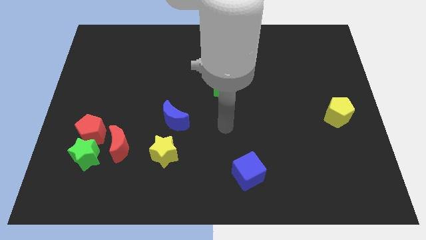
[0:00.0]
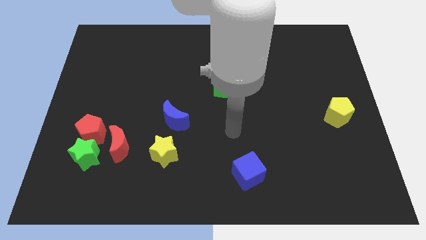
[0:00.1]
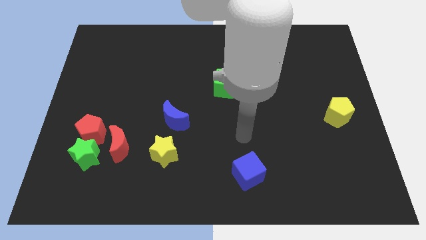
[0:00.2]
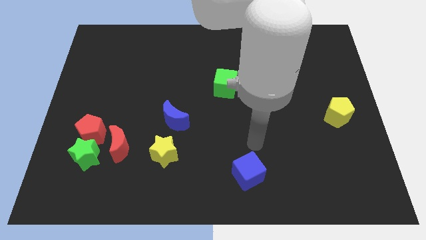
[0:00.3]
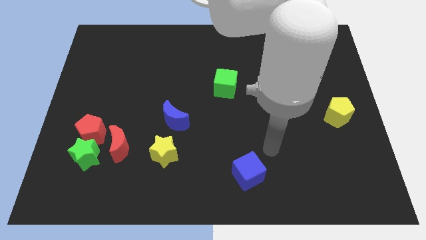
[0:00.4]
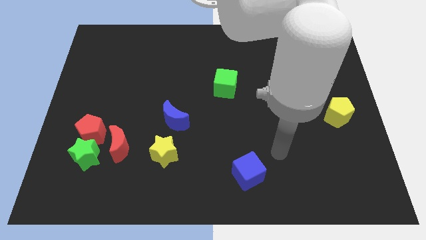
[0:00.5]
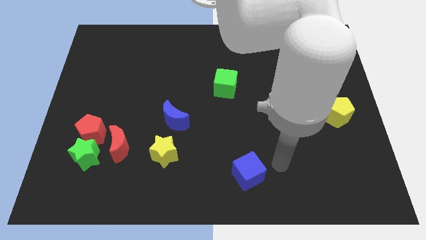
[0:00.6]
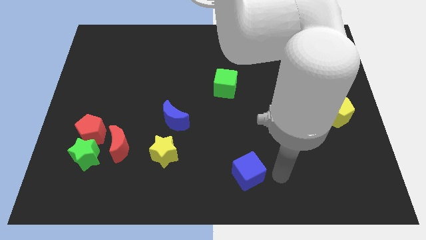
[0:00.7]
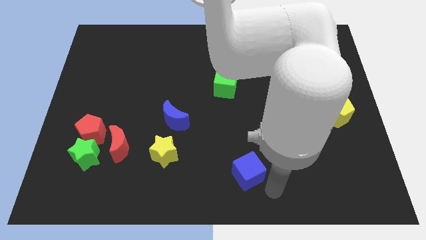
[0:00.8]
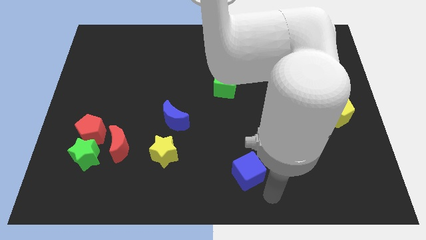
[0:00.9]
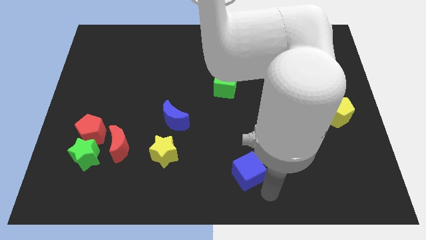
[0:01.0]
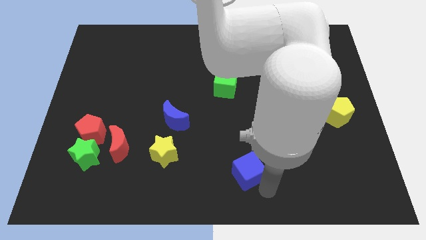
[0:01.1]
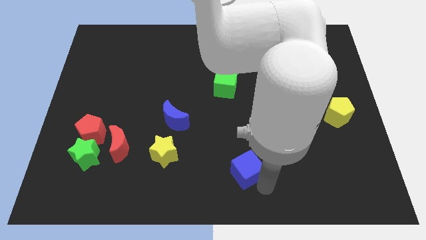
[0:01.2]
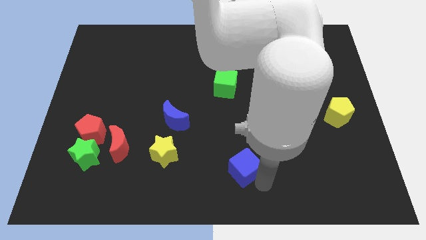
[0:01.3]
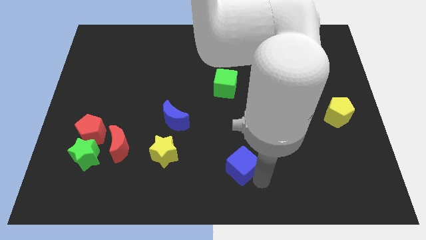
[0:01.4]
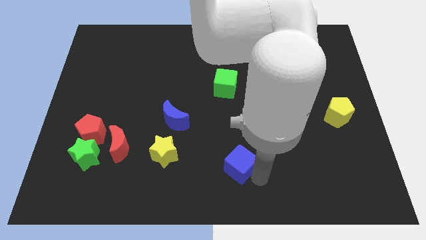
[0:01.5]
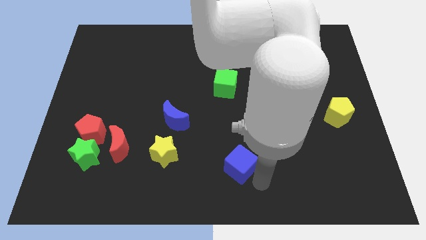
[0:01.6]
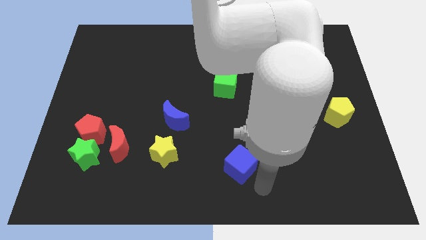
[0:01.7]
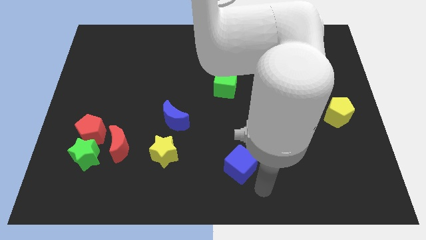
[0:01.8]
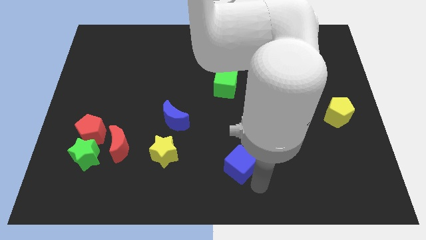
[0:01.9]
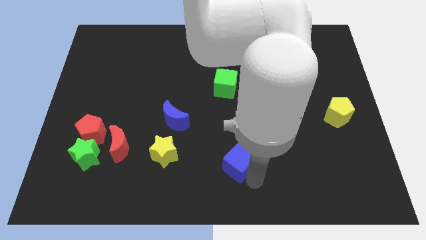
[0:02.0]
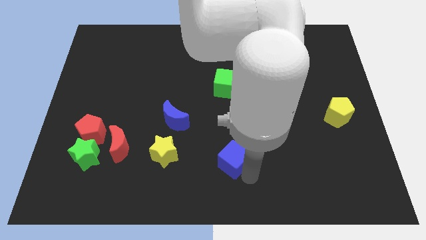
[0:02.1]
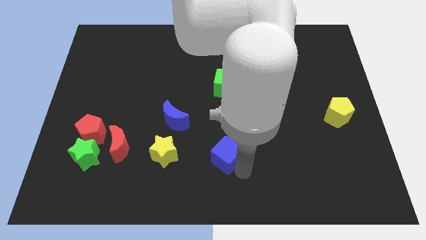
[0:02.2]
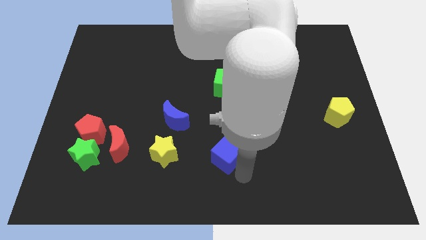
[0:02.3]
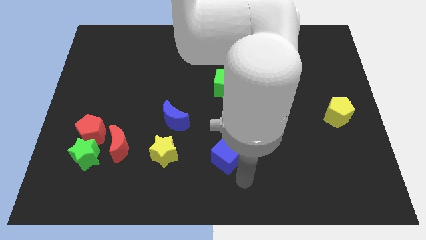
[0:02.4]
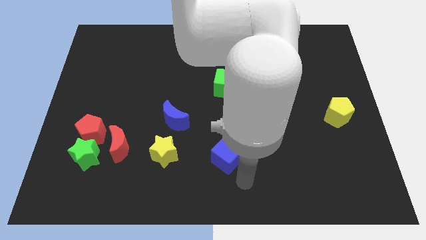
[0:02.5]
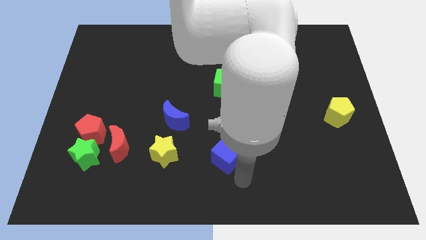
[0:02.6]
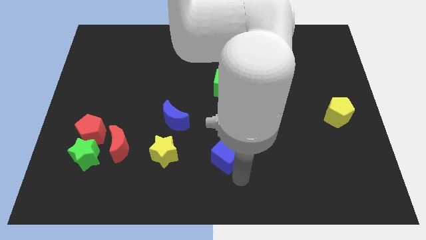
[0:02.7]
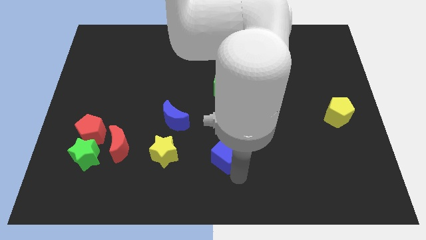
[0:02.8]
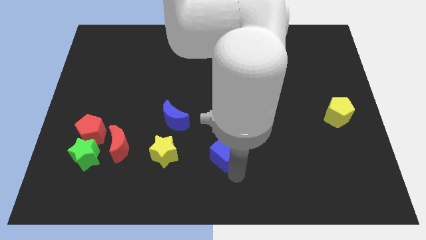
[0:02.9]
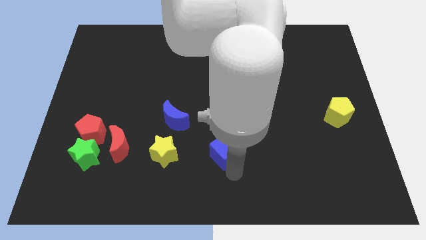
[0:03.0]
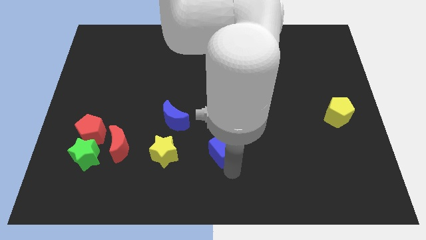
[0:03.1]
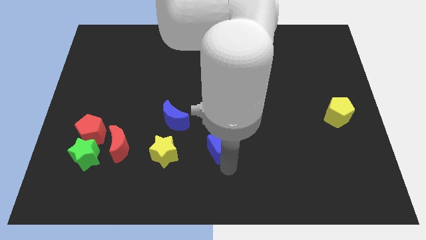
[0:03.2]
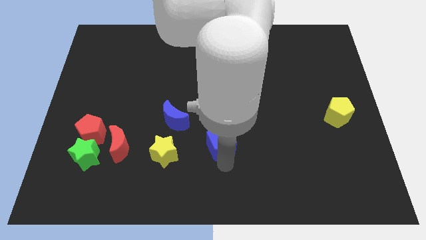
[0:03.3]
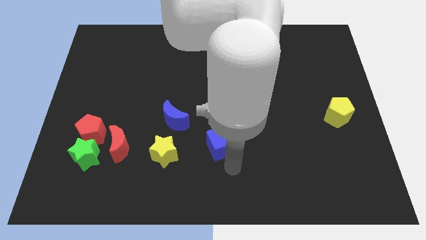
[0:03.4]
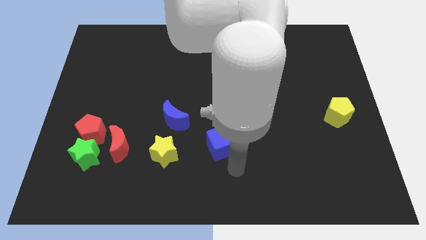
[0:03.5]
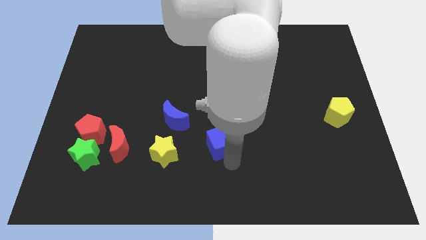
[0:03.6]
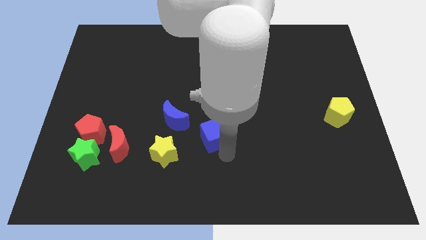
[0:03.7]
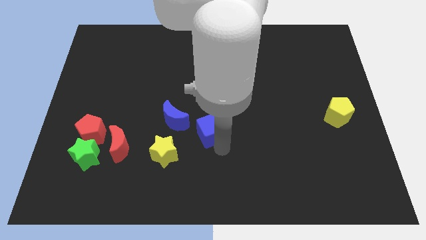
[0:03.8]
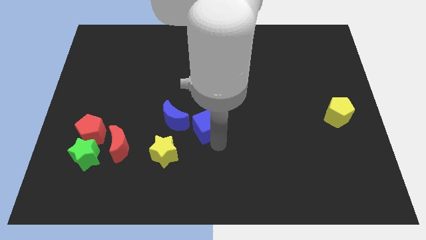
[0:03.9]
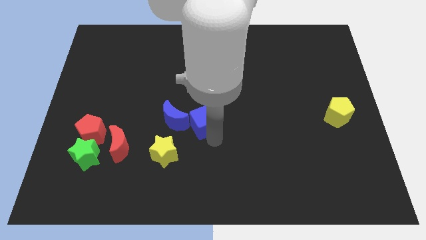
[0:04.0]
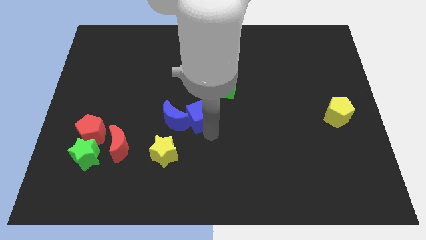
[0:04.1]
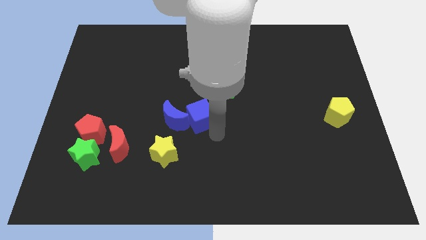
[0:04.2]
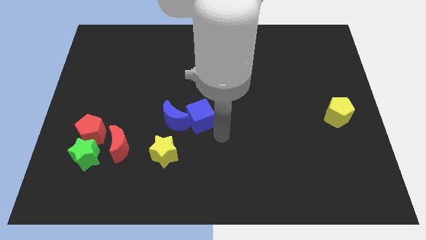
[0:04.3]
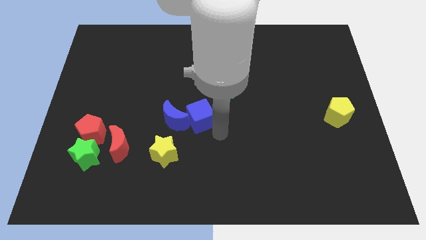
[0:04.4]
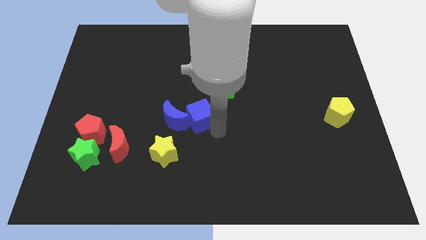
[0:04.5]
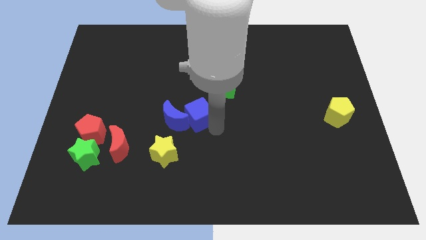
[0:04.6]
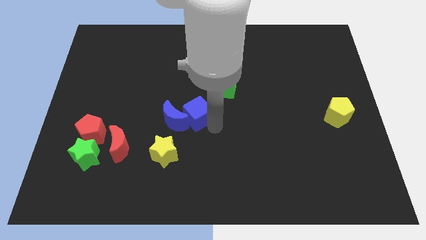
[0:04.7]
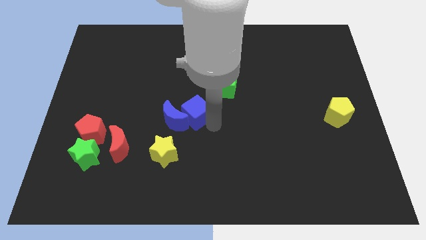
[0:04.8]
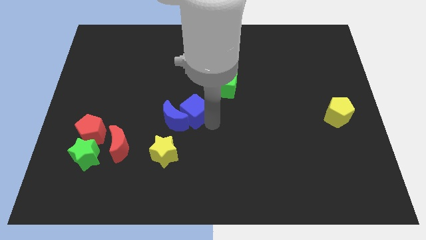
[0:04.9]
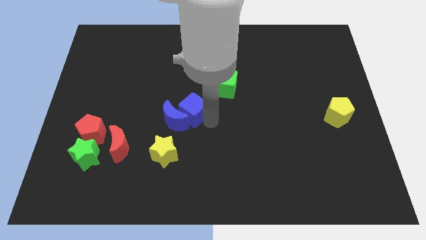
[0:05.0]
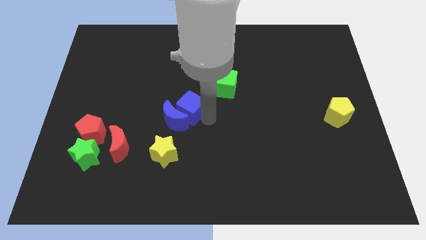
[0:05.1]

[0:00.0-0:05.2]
slide the blue cube diagonally up and left

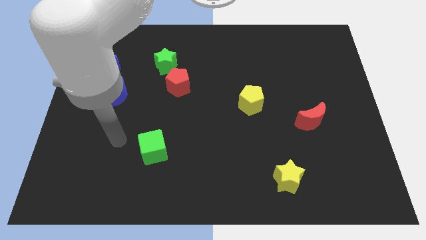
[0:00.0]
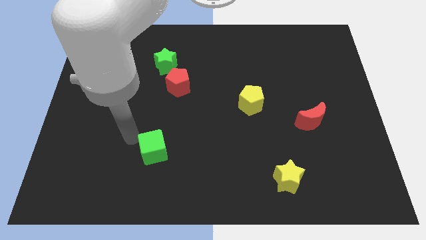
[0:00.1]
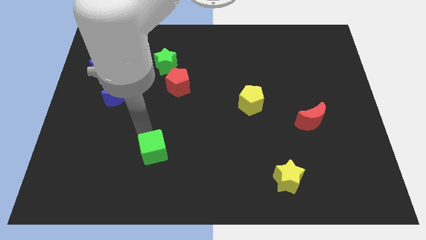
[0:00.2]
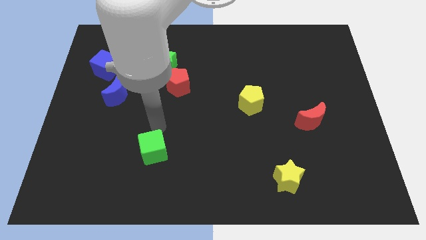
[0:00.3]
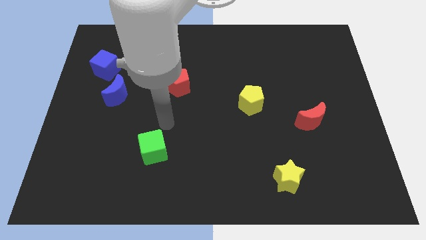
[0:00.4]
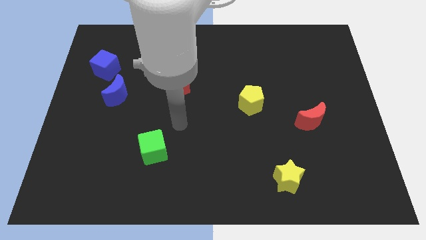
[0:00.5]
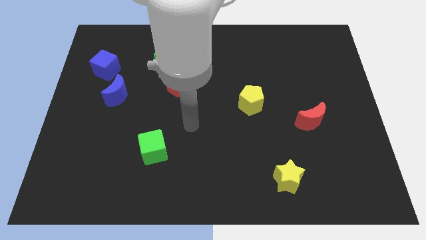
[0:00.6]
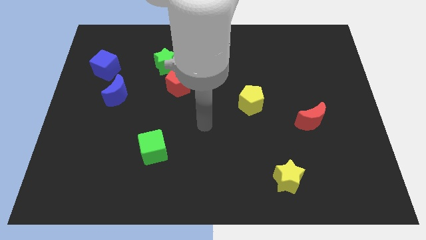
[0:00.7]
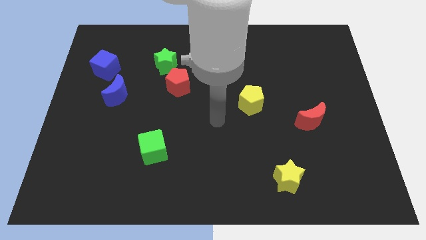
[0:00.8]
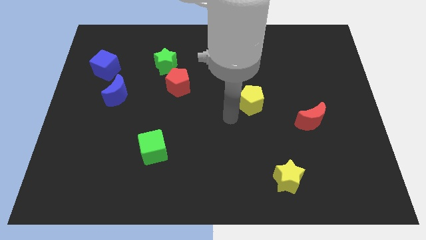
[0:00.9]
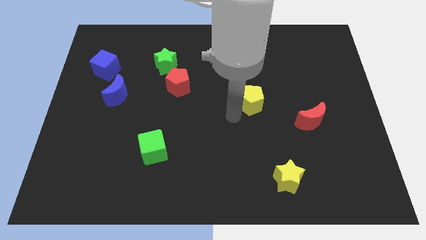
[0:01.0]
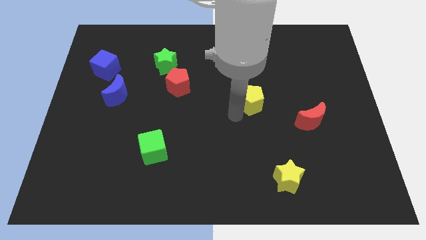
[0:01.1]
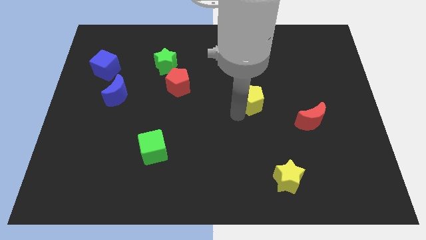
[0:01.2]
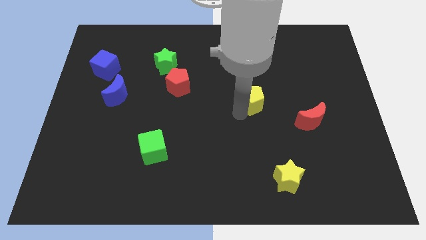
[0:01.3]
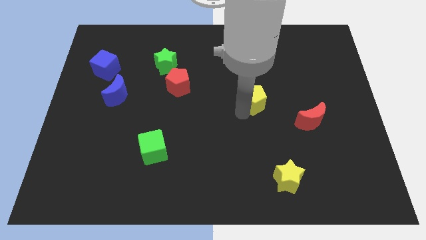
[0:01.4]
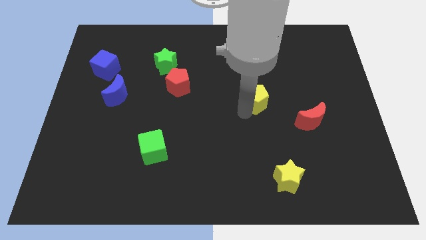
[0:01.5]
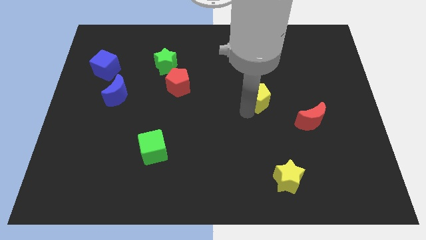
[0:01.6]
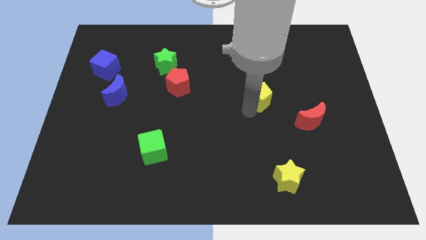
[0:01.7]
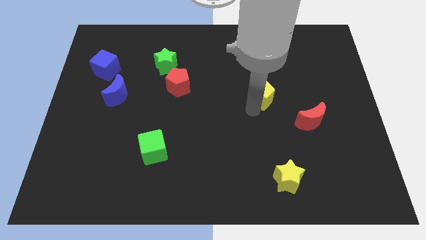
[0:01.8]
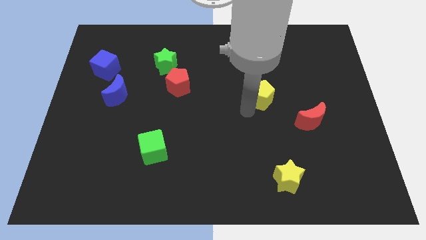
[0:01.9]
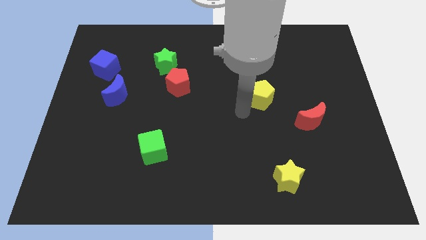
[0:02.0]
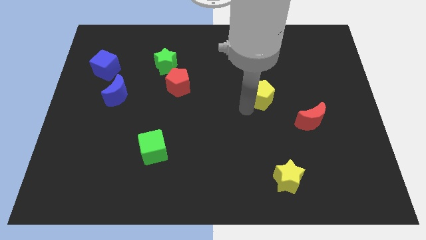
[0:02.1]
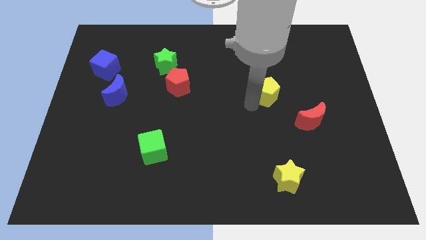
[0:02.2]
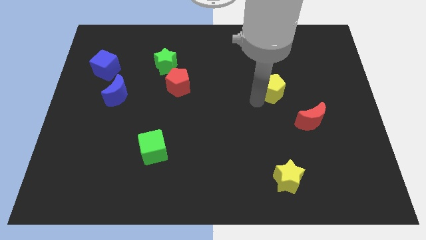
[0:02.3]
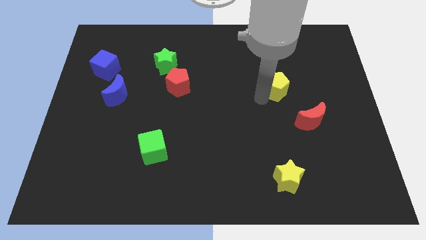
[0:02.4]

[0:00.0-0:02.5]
slightly slide the yellow pentagon up and to the right

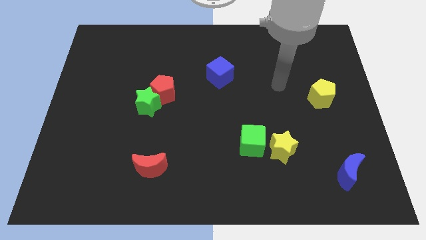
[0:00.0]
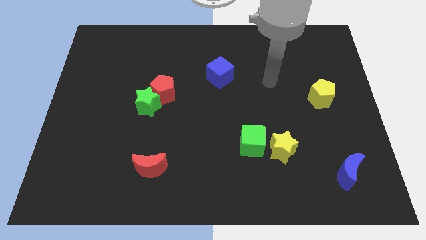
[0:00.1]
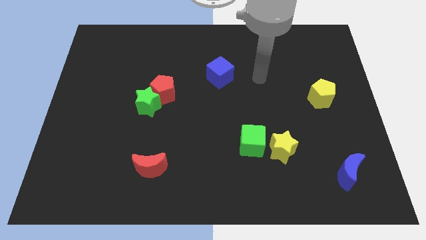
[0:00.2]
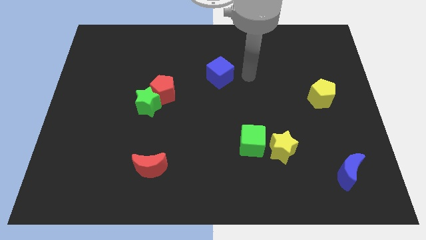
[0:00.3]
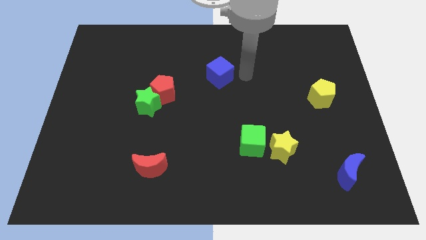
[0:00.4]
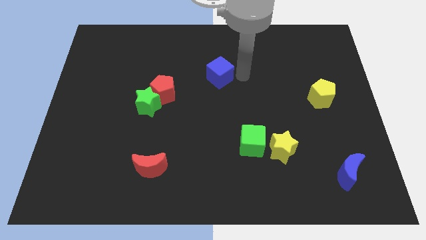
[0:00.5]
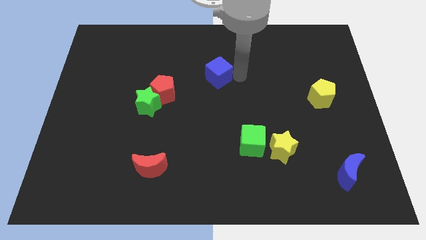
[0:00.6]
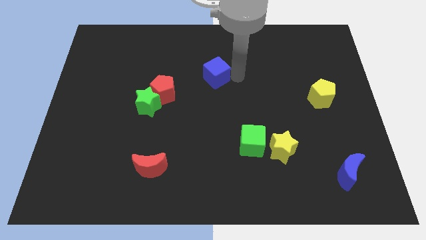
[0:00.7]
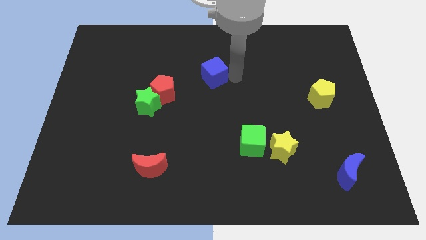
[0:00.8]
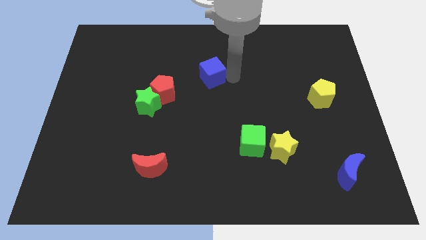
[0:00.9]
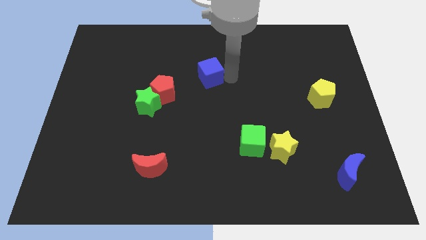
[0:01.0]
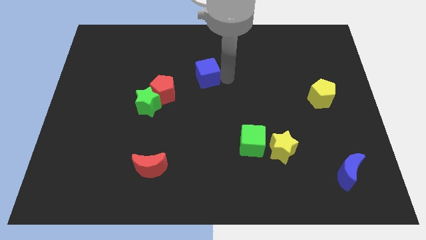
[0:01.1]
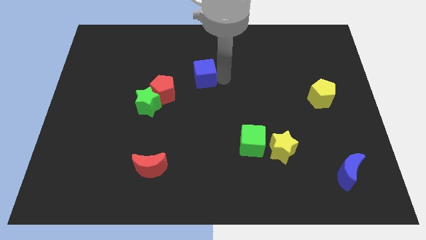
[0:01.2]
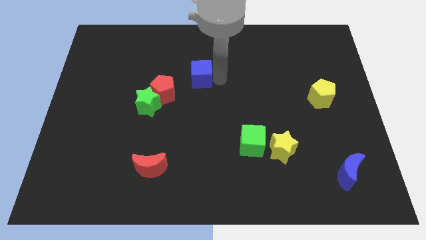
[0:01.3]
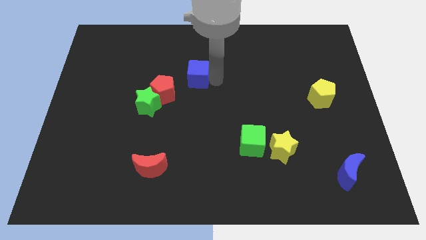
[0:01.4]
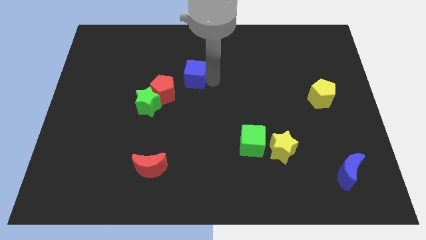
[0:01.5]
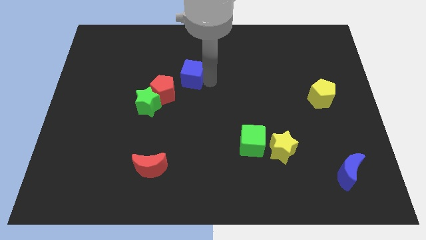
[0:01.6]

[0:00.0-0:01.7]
slide the blue cube slightly to the left
